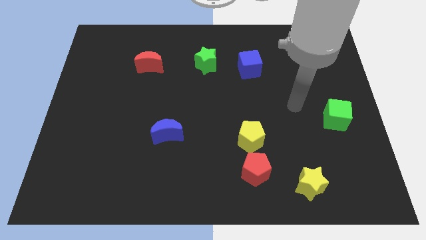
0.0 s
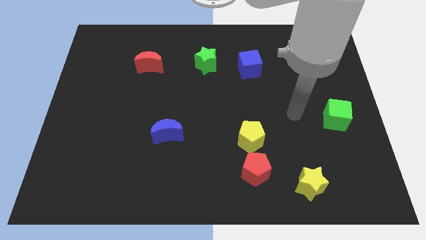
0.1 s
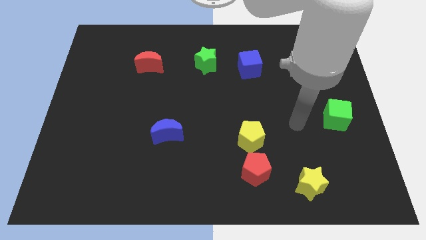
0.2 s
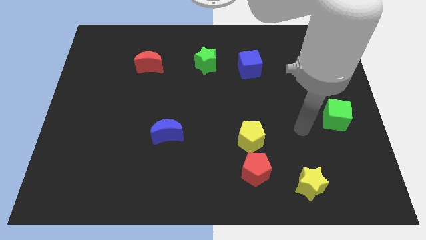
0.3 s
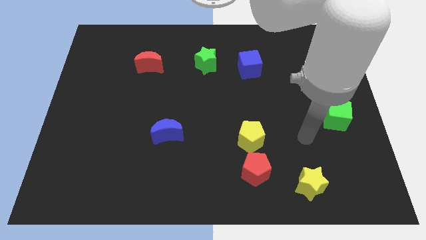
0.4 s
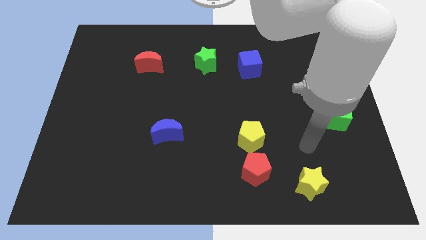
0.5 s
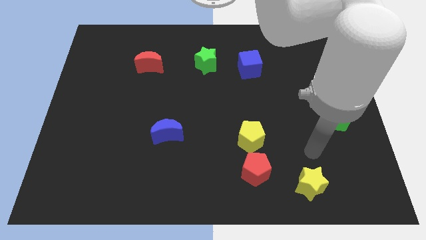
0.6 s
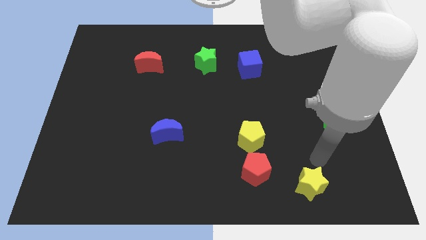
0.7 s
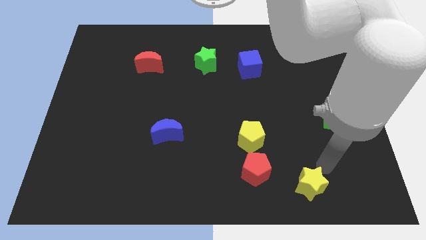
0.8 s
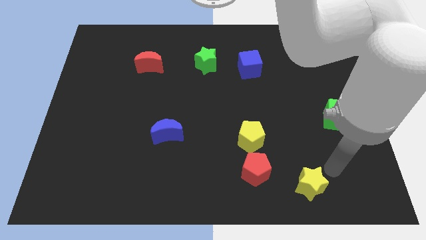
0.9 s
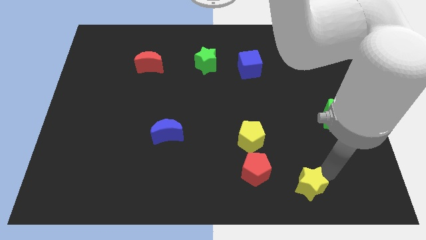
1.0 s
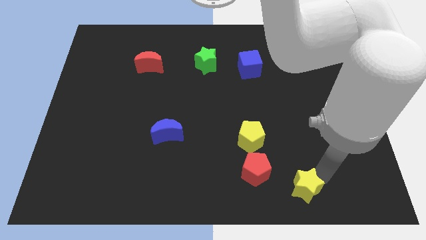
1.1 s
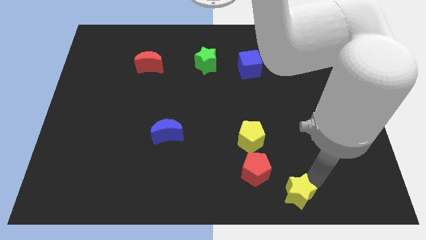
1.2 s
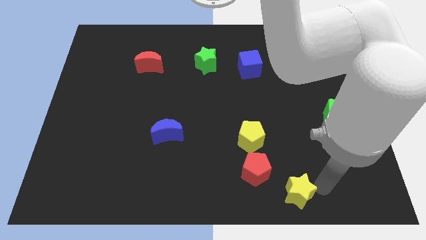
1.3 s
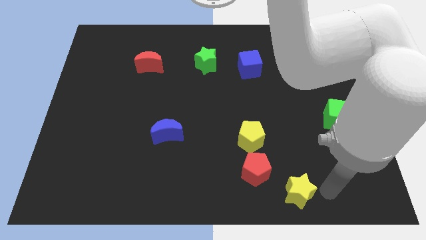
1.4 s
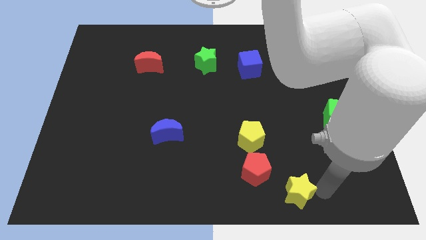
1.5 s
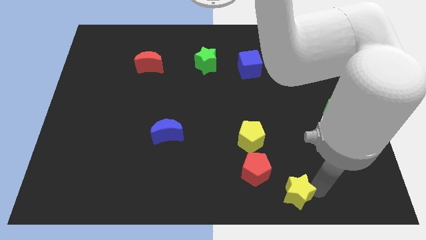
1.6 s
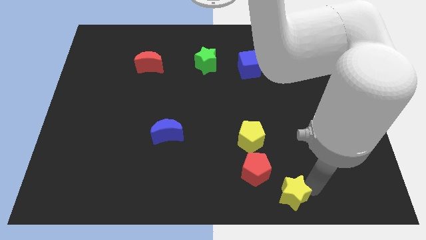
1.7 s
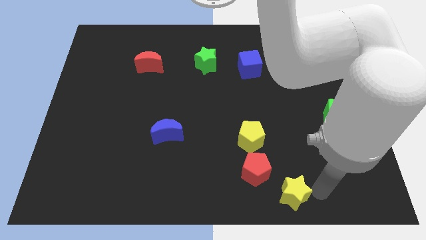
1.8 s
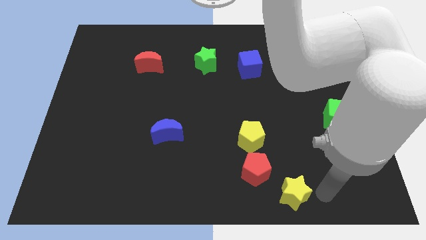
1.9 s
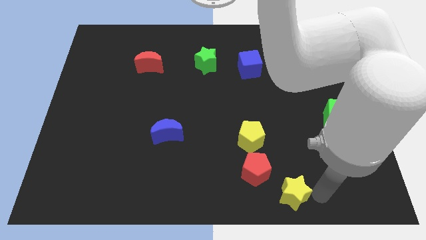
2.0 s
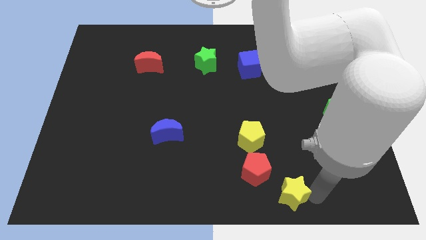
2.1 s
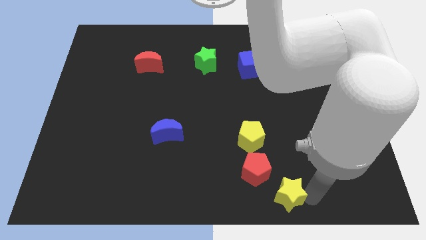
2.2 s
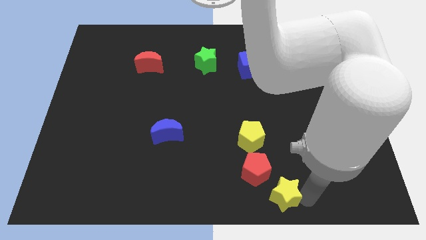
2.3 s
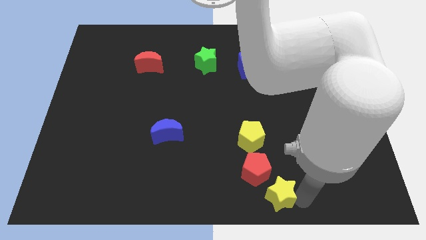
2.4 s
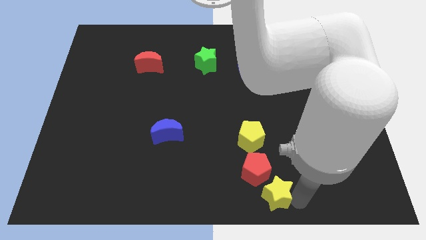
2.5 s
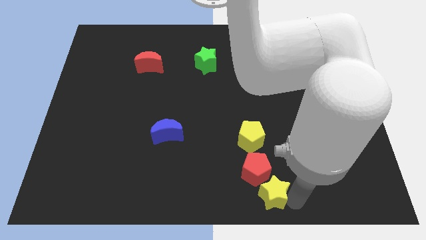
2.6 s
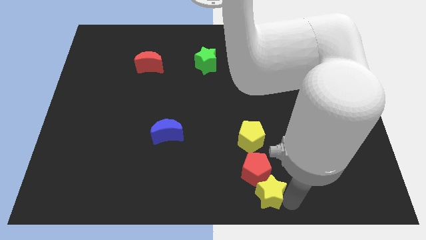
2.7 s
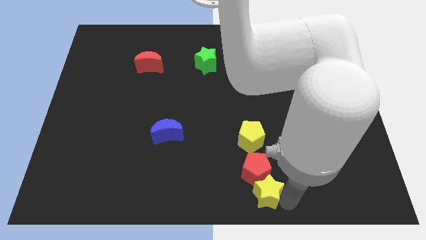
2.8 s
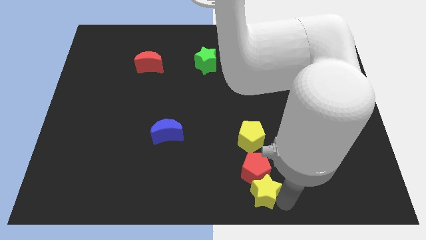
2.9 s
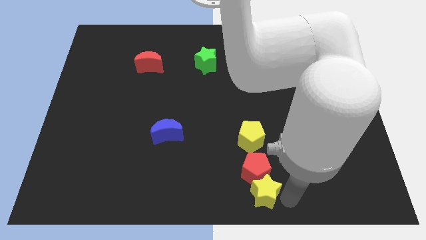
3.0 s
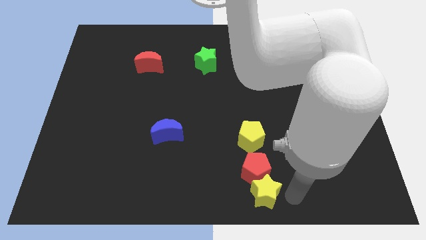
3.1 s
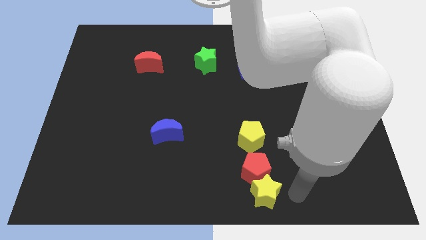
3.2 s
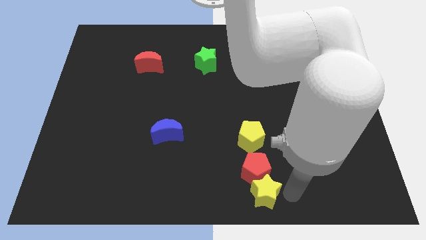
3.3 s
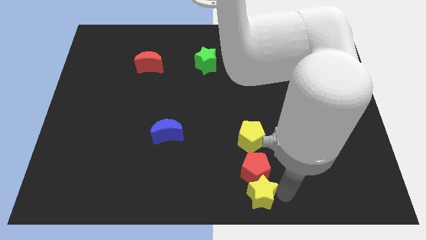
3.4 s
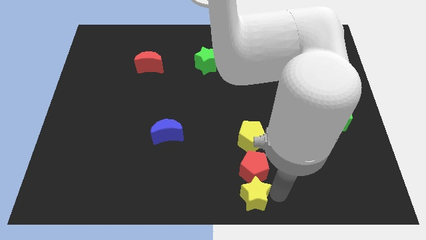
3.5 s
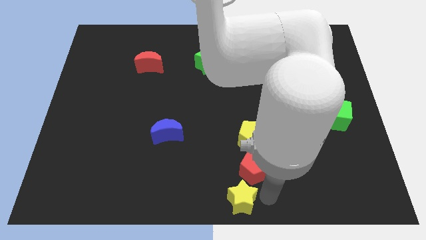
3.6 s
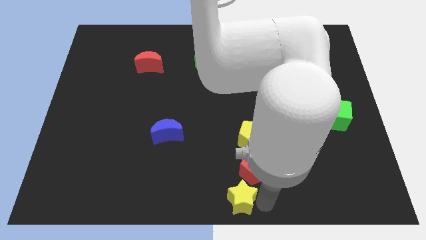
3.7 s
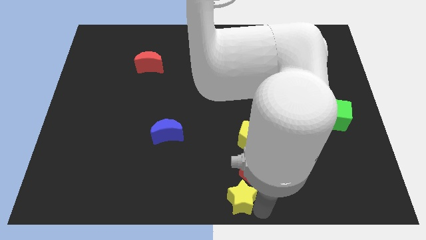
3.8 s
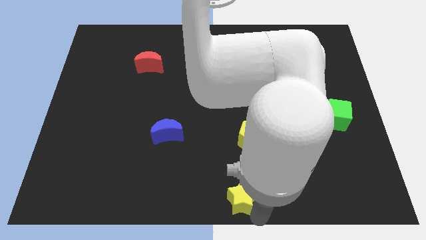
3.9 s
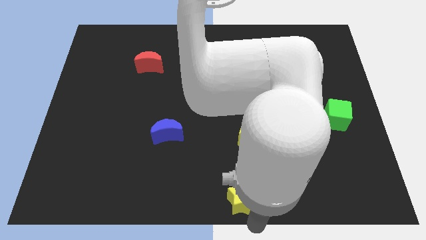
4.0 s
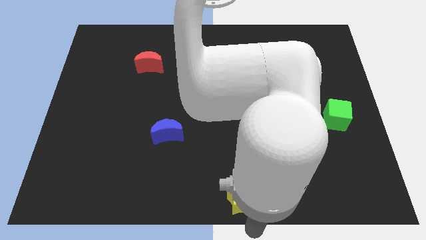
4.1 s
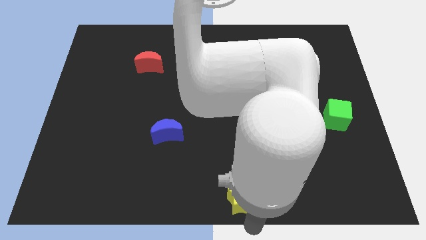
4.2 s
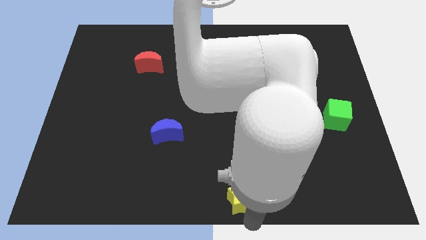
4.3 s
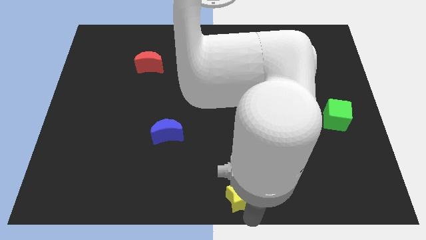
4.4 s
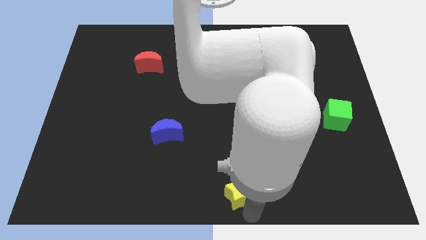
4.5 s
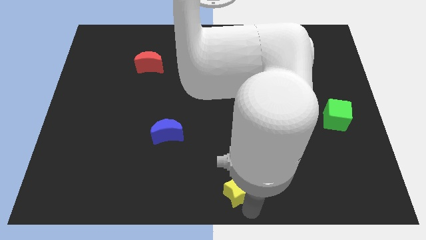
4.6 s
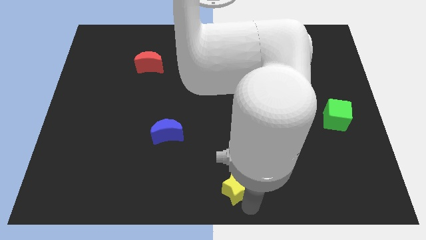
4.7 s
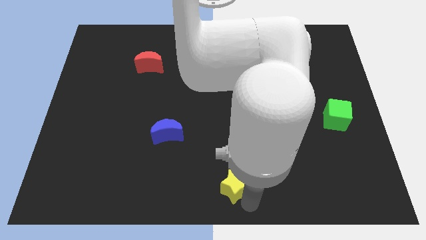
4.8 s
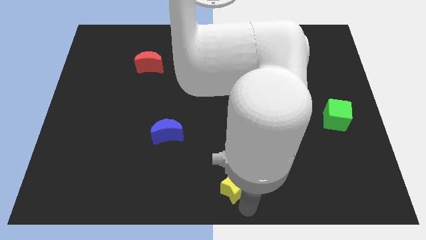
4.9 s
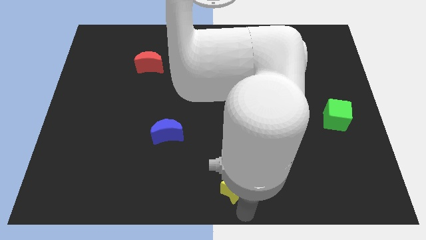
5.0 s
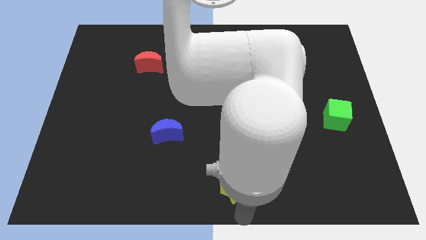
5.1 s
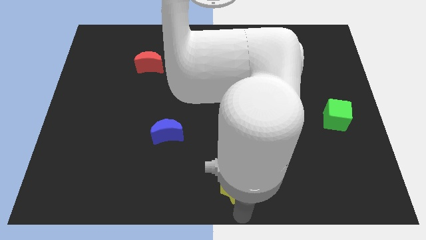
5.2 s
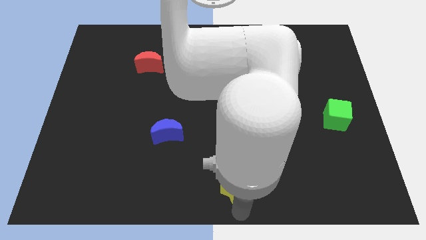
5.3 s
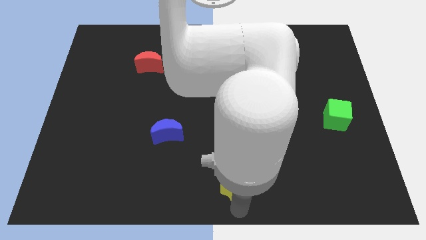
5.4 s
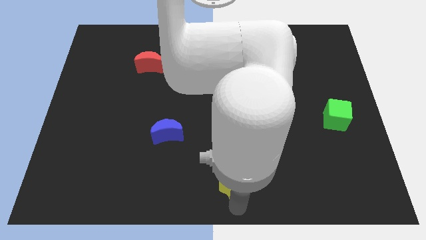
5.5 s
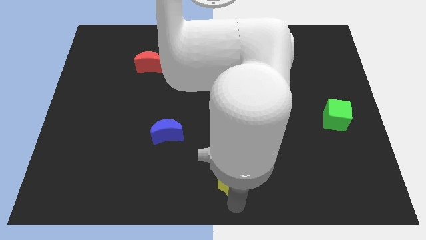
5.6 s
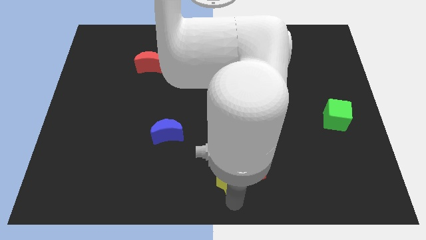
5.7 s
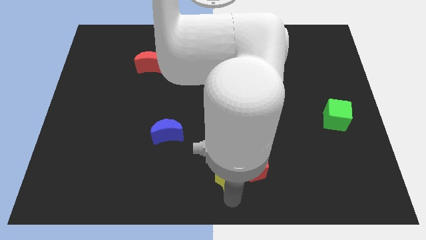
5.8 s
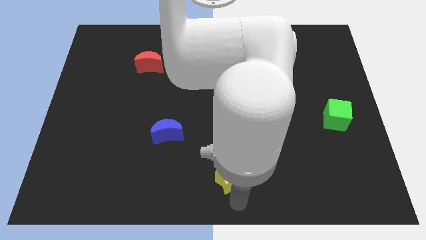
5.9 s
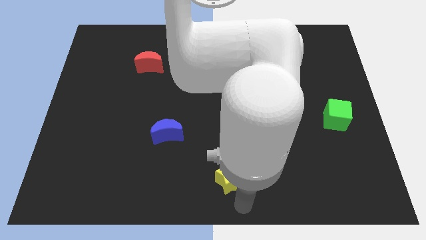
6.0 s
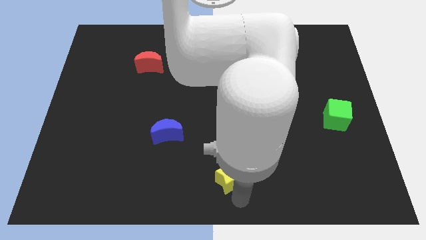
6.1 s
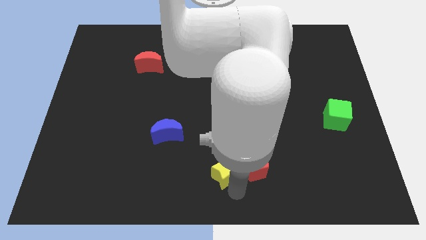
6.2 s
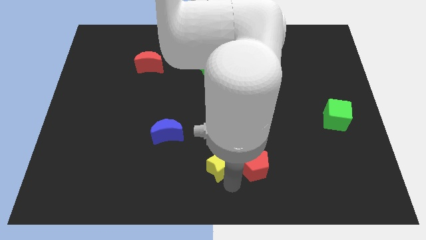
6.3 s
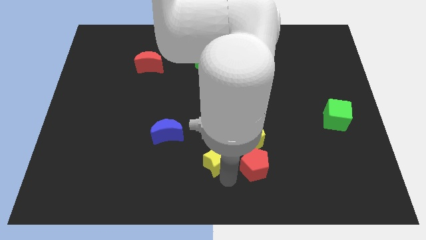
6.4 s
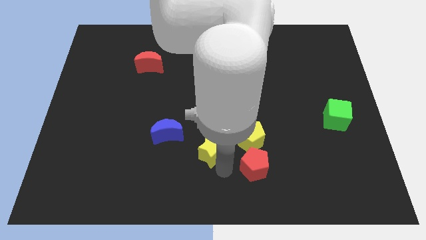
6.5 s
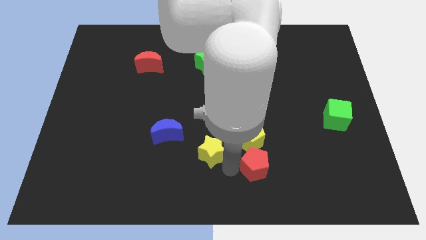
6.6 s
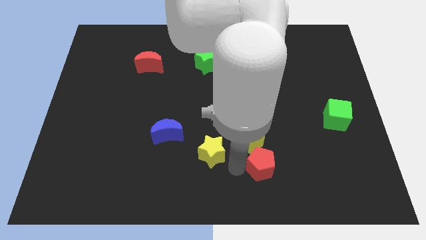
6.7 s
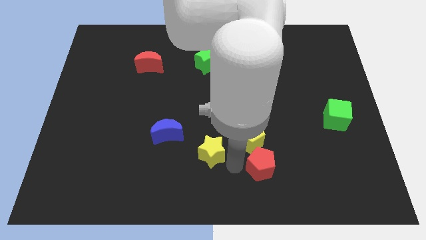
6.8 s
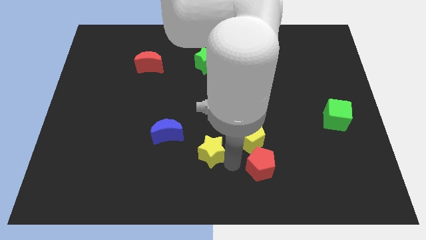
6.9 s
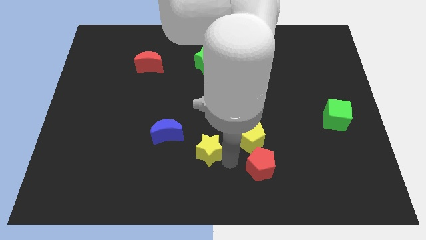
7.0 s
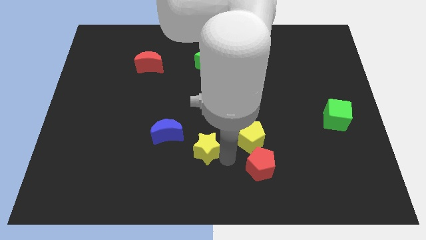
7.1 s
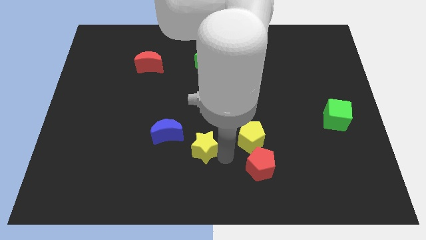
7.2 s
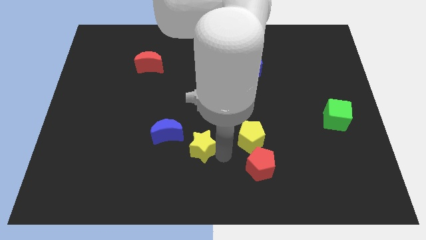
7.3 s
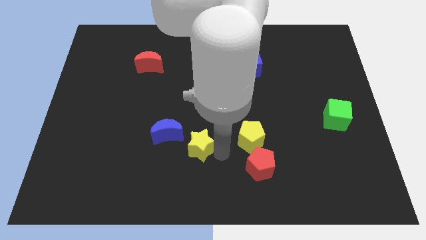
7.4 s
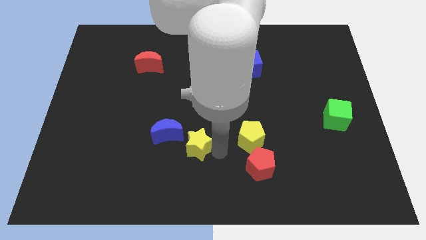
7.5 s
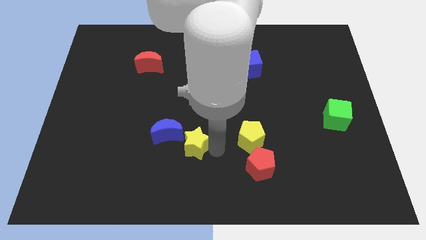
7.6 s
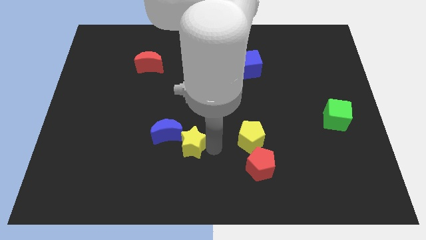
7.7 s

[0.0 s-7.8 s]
move the yellow star next to the blue moon
